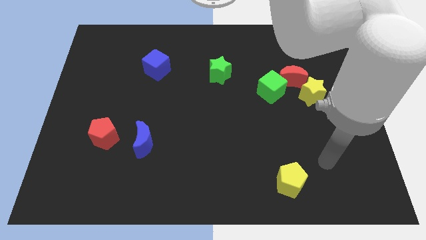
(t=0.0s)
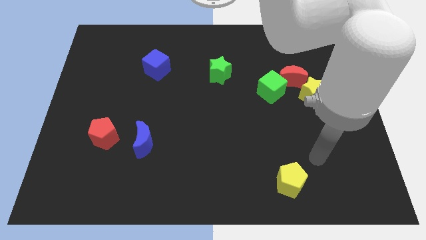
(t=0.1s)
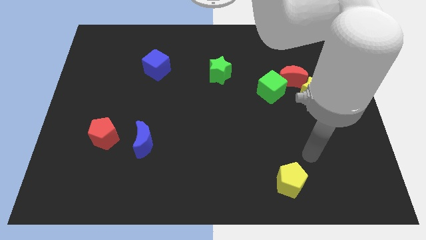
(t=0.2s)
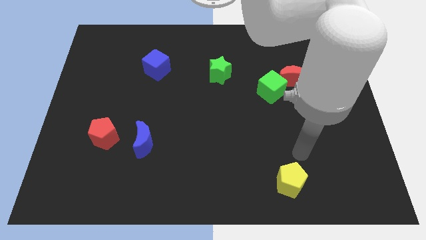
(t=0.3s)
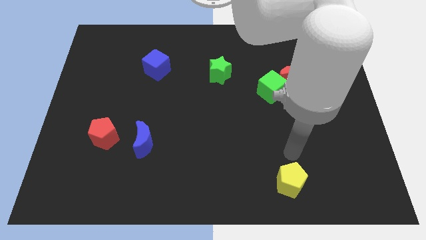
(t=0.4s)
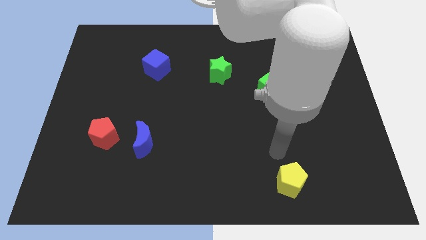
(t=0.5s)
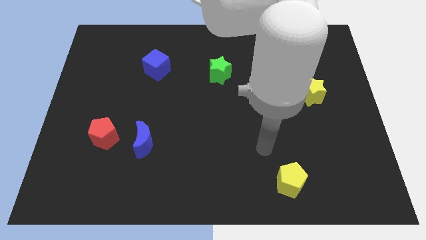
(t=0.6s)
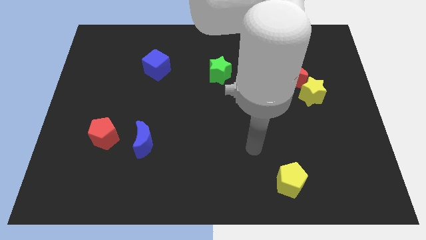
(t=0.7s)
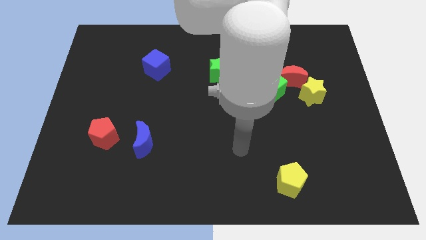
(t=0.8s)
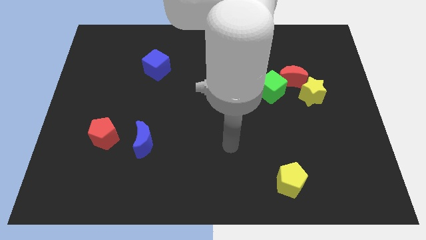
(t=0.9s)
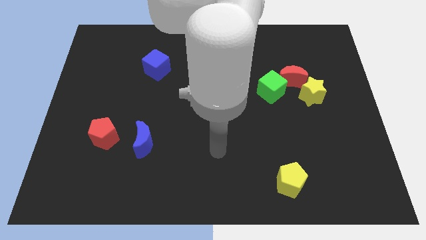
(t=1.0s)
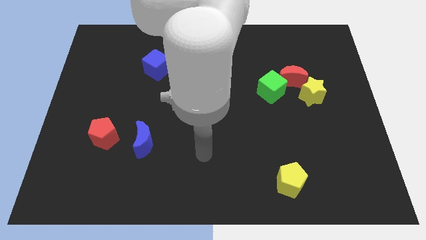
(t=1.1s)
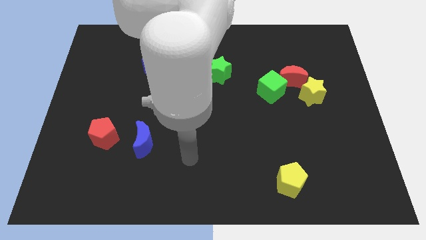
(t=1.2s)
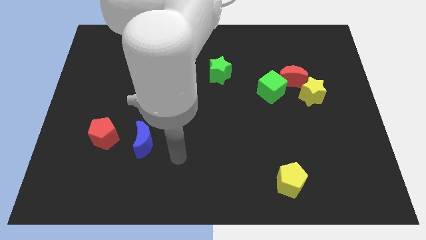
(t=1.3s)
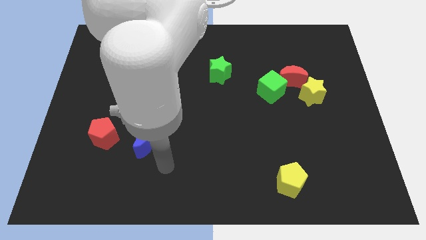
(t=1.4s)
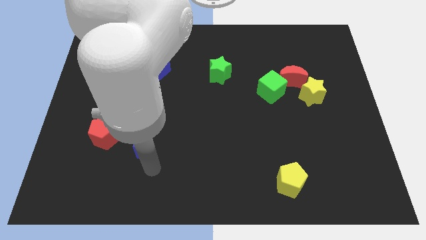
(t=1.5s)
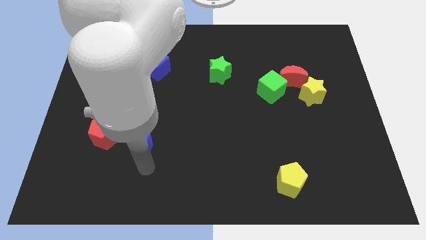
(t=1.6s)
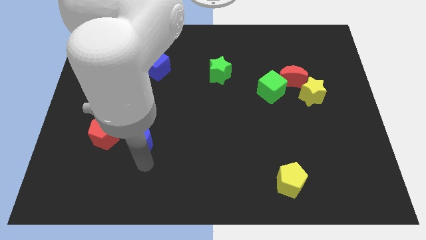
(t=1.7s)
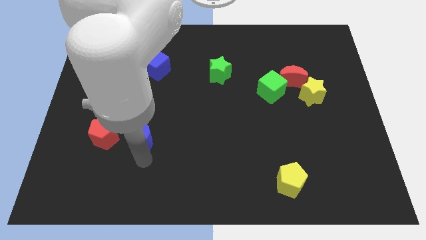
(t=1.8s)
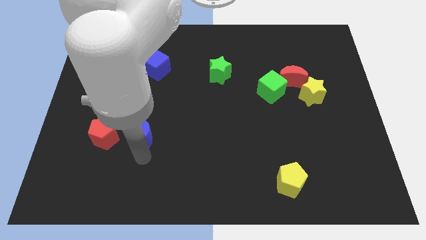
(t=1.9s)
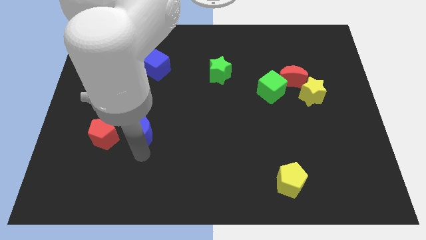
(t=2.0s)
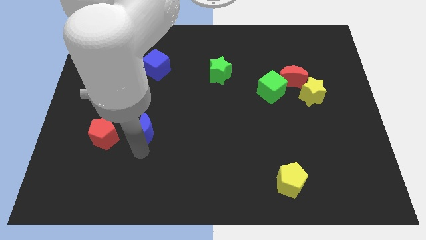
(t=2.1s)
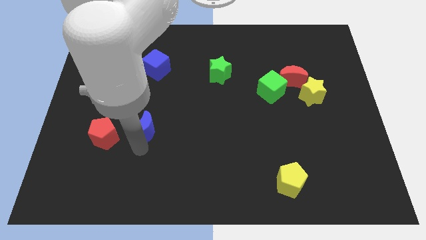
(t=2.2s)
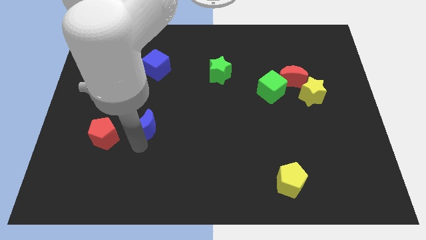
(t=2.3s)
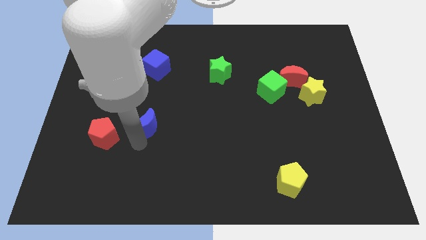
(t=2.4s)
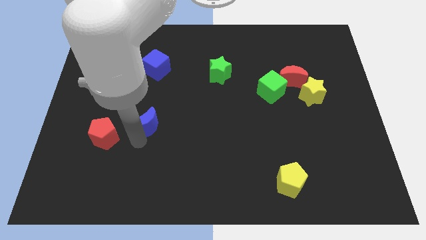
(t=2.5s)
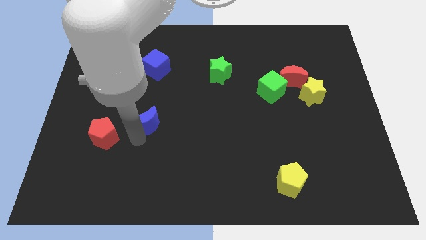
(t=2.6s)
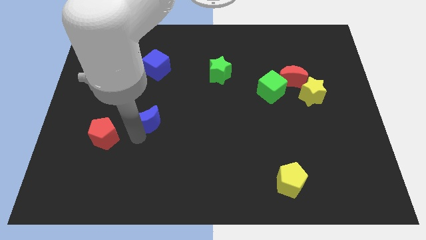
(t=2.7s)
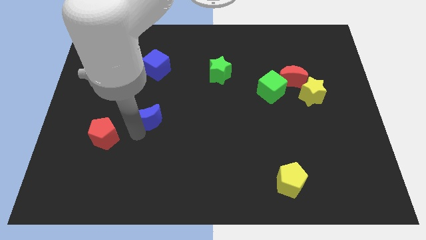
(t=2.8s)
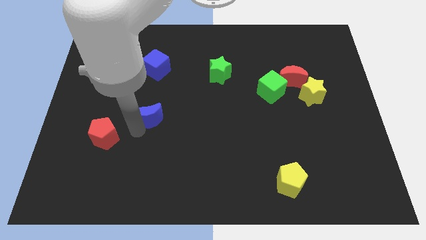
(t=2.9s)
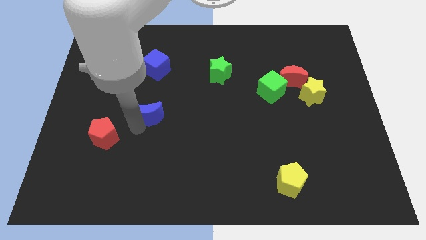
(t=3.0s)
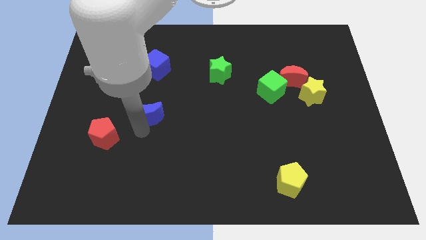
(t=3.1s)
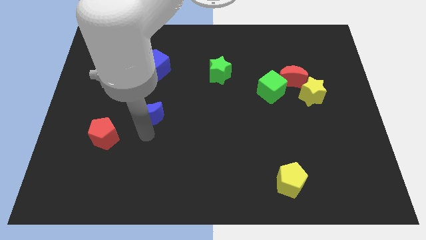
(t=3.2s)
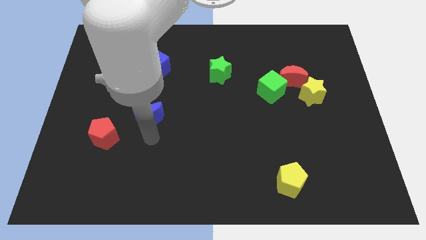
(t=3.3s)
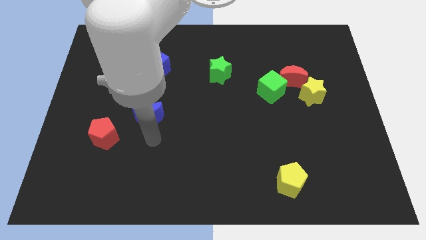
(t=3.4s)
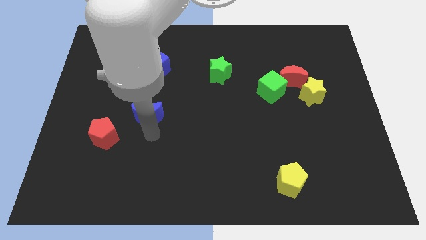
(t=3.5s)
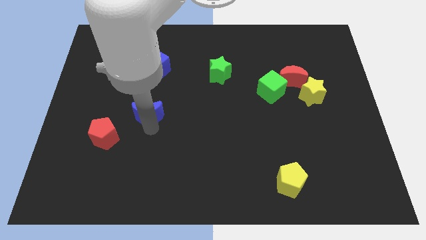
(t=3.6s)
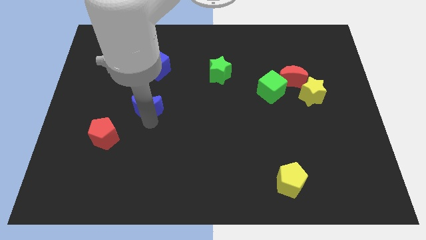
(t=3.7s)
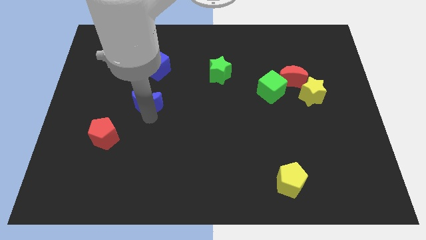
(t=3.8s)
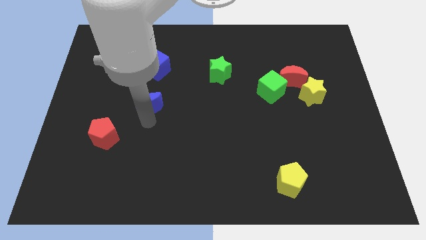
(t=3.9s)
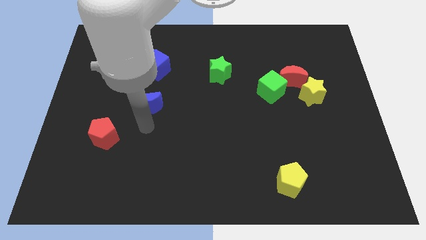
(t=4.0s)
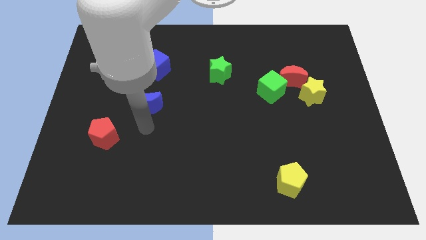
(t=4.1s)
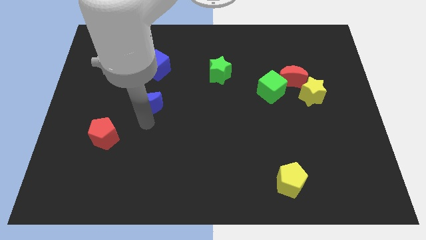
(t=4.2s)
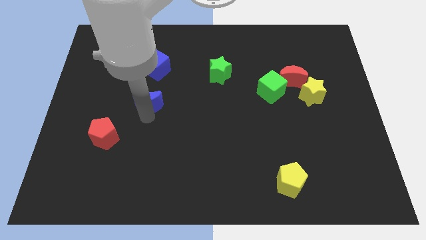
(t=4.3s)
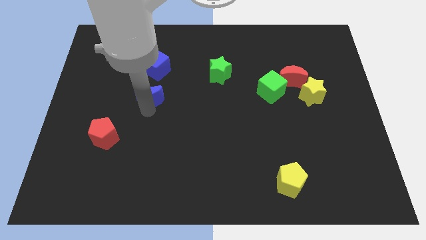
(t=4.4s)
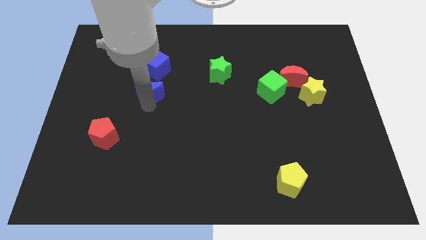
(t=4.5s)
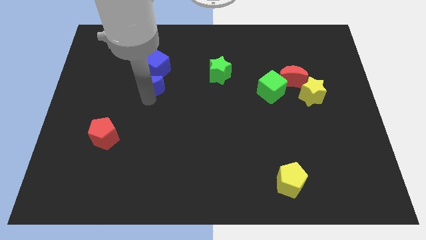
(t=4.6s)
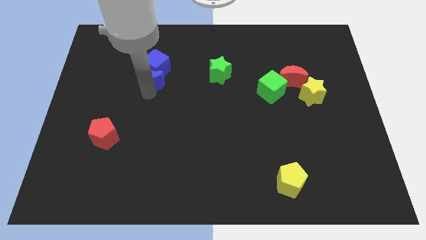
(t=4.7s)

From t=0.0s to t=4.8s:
slide the blue moon next to the blue cube

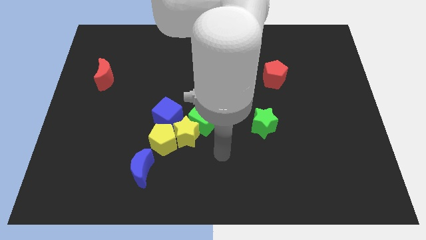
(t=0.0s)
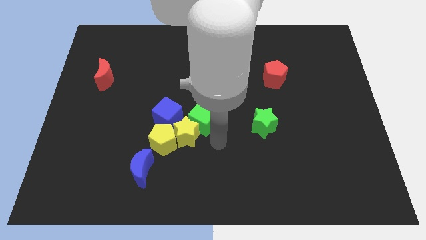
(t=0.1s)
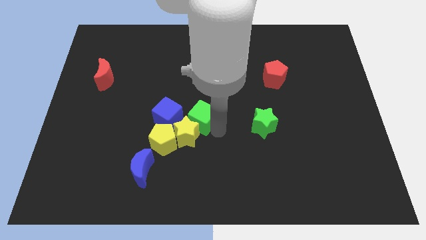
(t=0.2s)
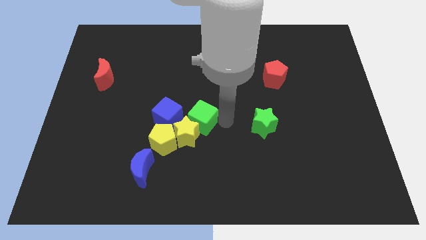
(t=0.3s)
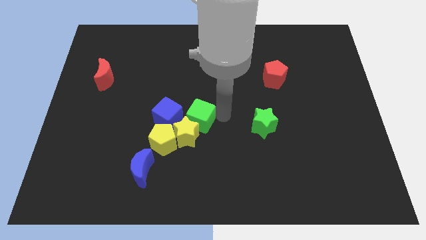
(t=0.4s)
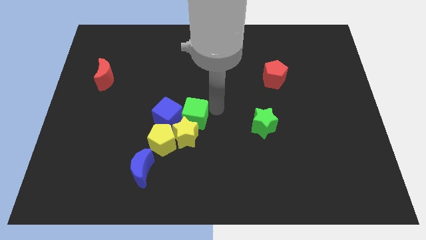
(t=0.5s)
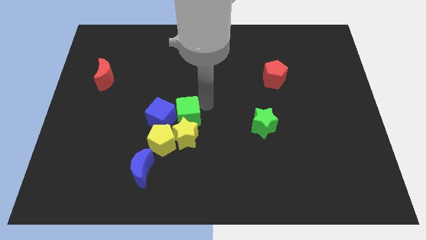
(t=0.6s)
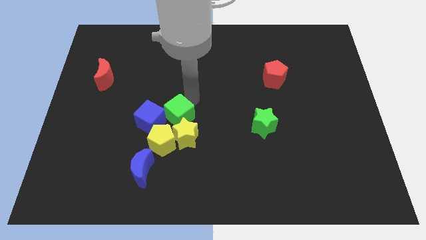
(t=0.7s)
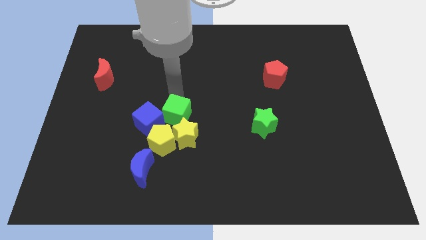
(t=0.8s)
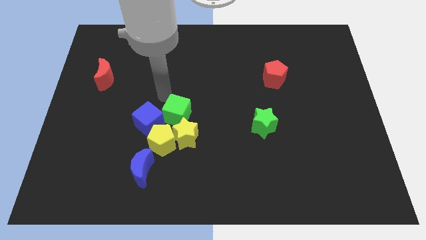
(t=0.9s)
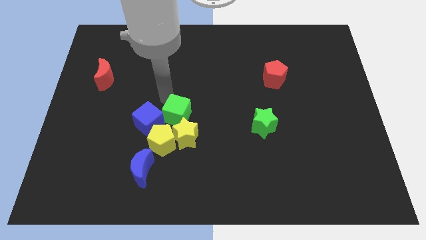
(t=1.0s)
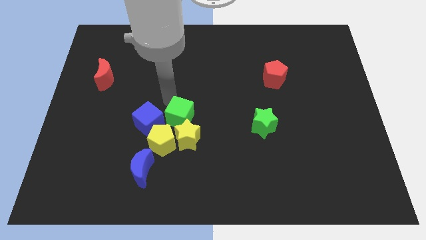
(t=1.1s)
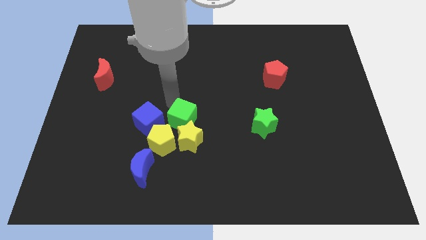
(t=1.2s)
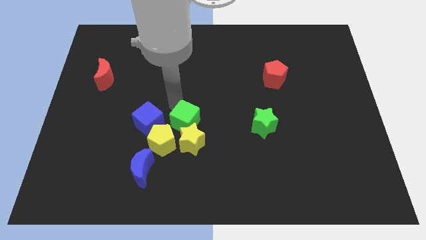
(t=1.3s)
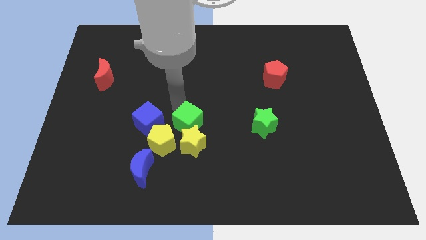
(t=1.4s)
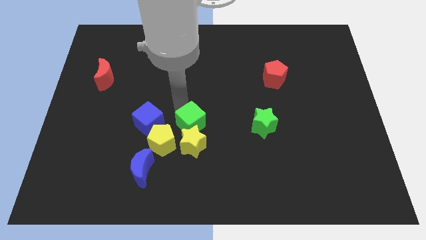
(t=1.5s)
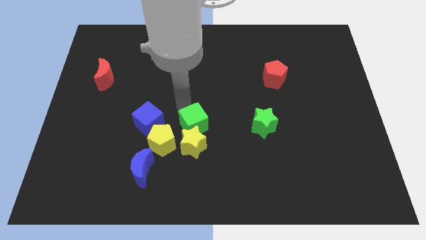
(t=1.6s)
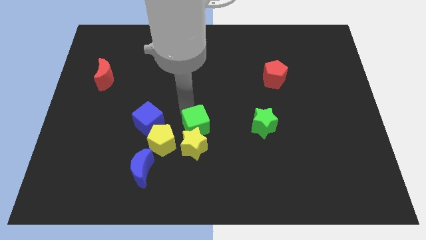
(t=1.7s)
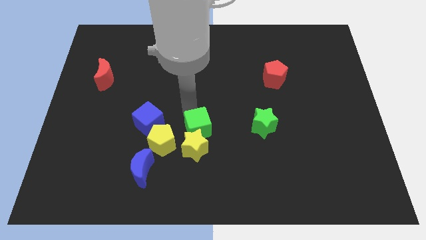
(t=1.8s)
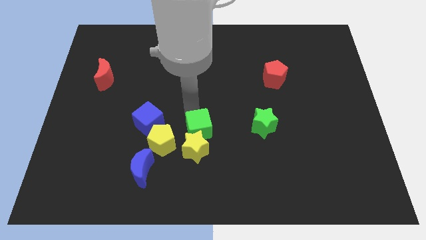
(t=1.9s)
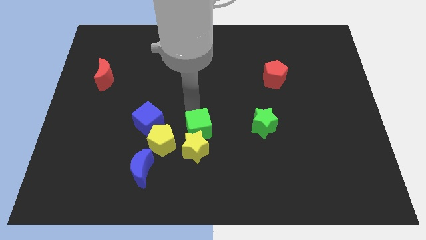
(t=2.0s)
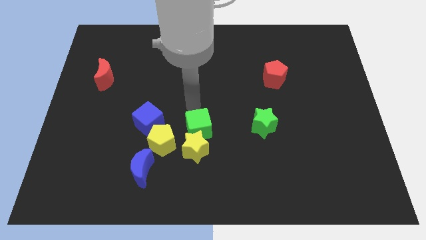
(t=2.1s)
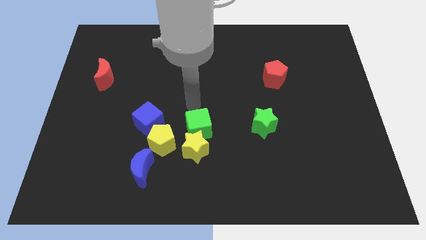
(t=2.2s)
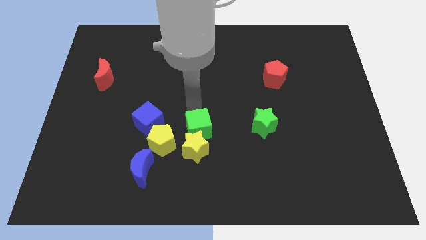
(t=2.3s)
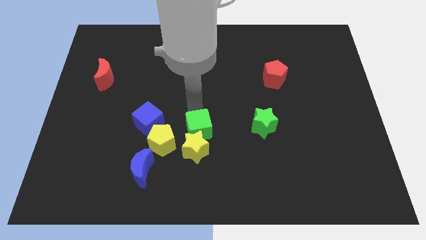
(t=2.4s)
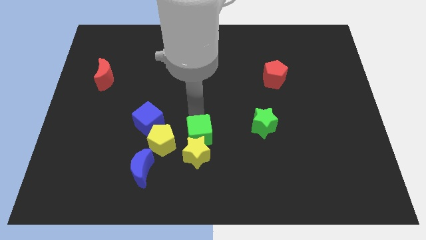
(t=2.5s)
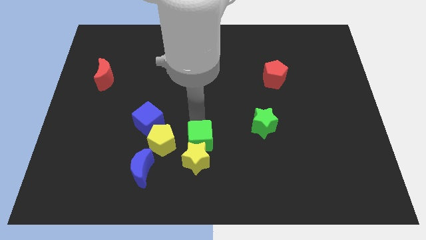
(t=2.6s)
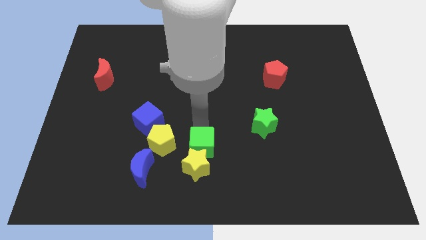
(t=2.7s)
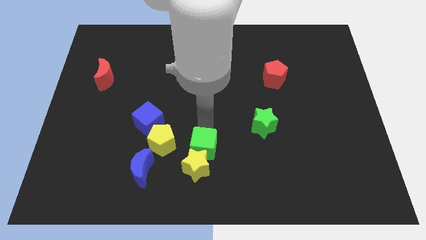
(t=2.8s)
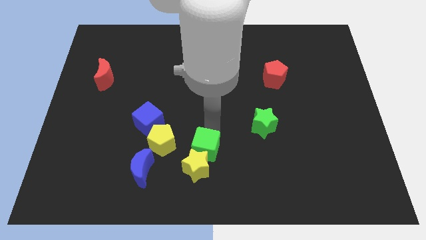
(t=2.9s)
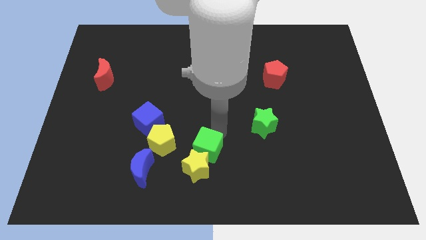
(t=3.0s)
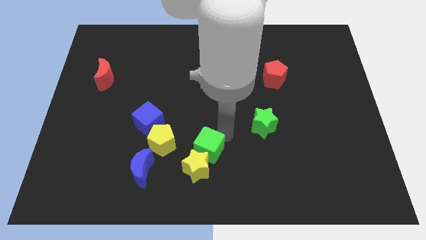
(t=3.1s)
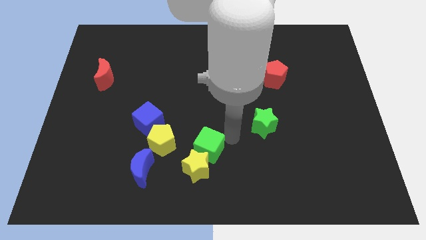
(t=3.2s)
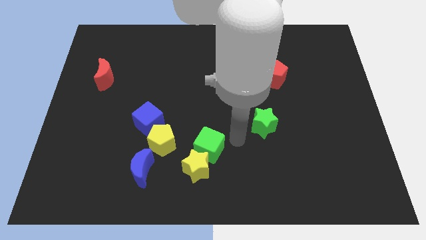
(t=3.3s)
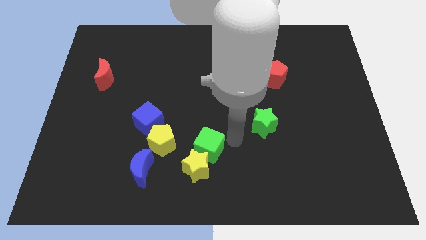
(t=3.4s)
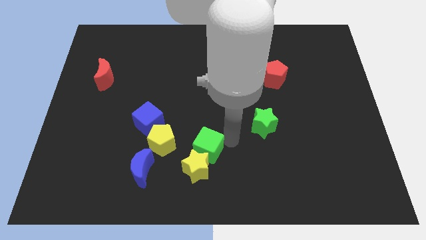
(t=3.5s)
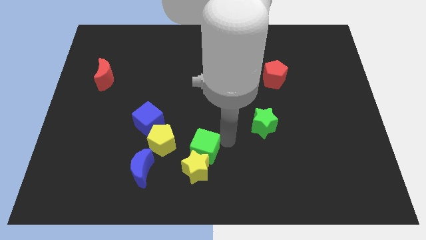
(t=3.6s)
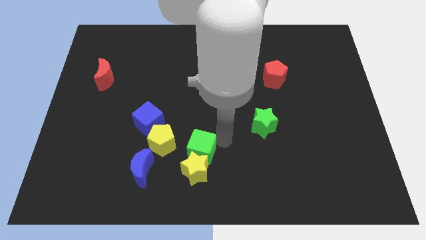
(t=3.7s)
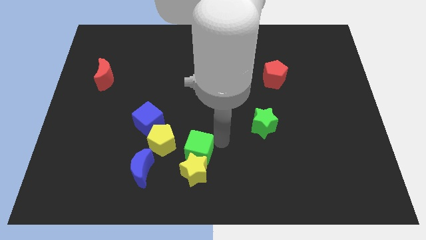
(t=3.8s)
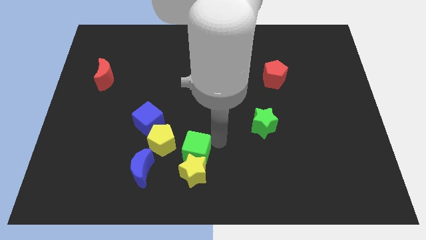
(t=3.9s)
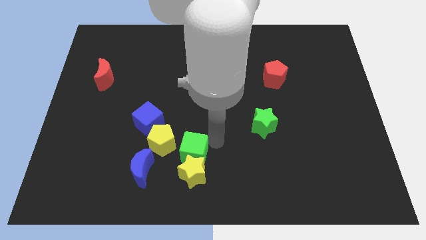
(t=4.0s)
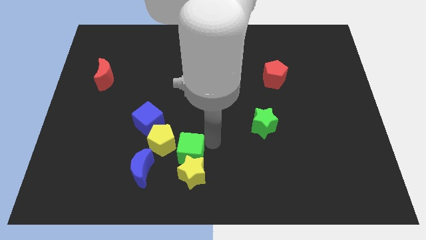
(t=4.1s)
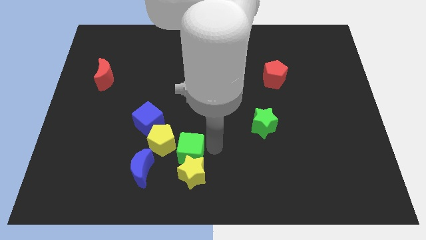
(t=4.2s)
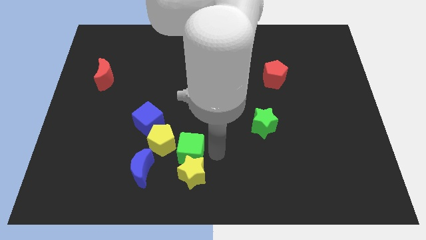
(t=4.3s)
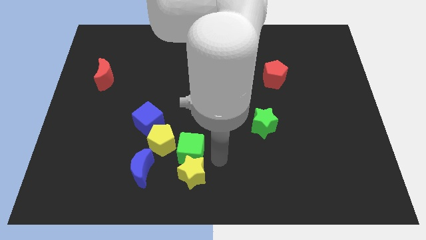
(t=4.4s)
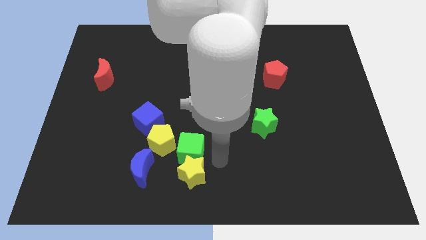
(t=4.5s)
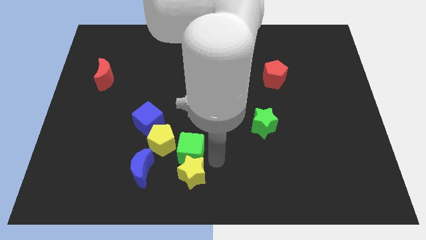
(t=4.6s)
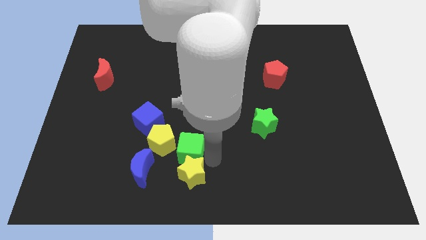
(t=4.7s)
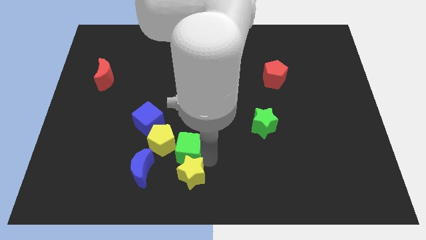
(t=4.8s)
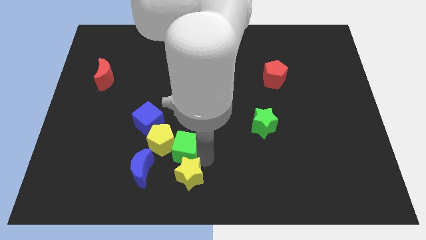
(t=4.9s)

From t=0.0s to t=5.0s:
slide the green cube next to the yellow pentagon
